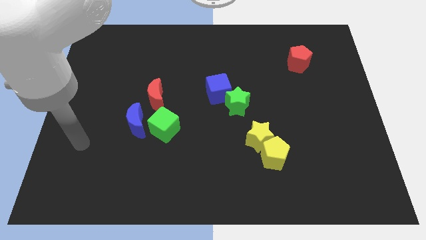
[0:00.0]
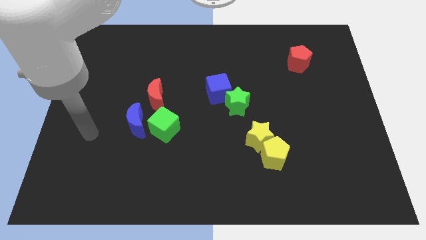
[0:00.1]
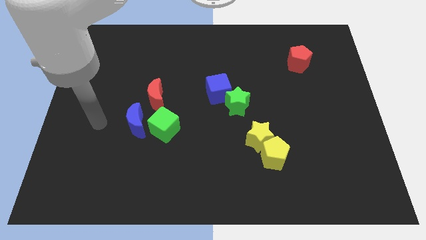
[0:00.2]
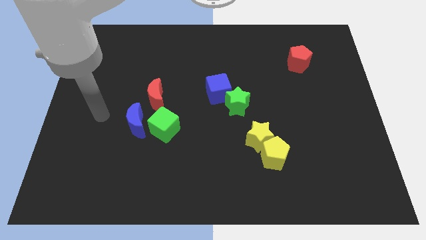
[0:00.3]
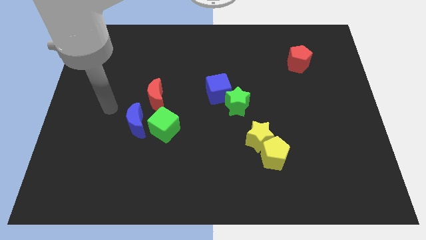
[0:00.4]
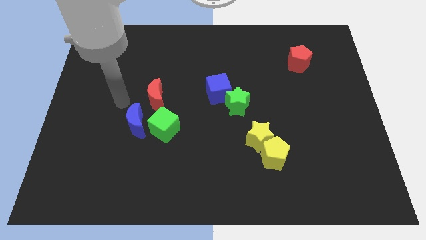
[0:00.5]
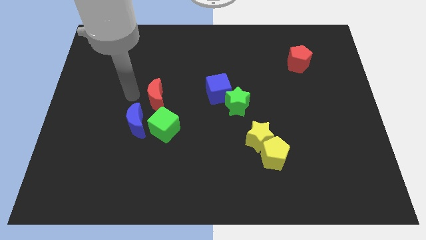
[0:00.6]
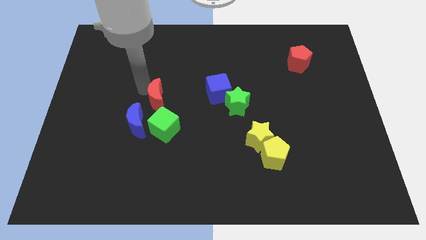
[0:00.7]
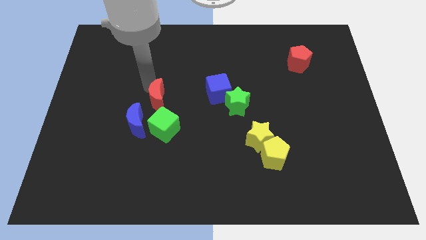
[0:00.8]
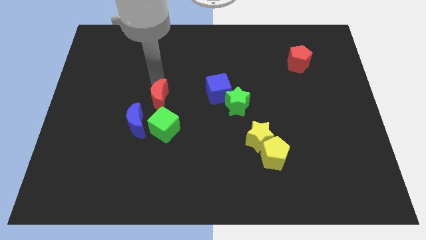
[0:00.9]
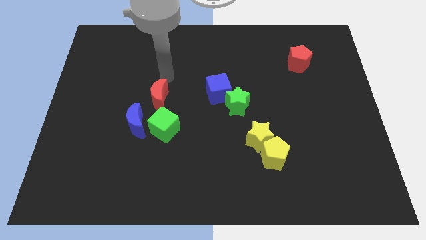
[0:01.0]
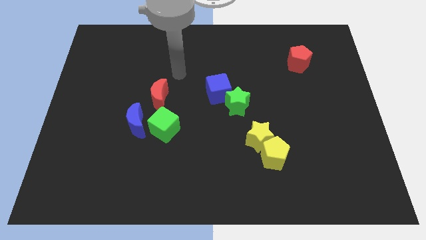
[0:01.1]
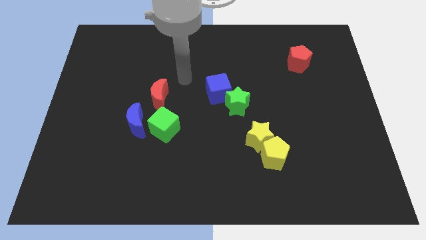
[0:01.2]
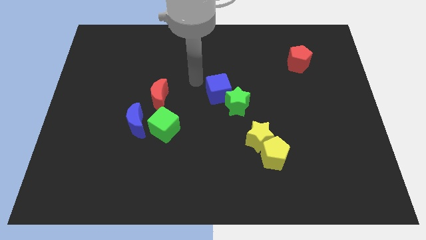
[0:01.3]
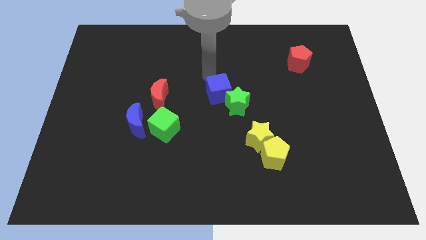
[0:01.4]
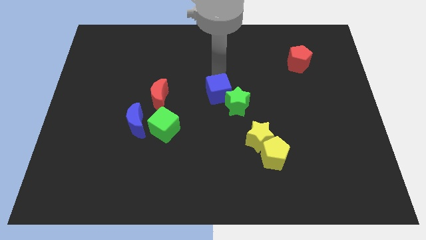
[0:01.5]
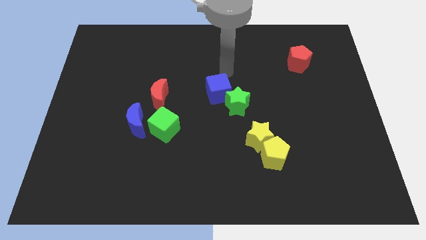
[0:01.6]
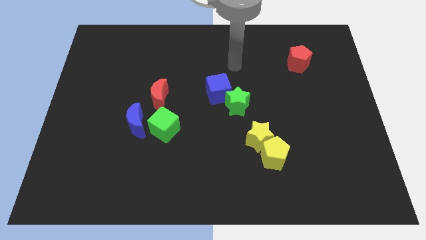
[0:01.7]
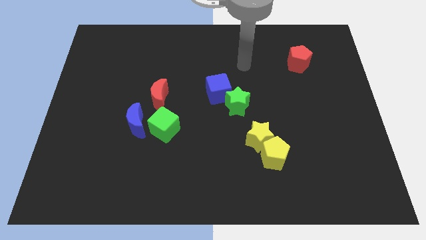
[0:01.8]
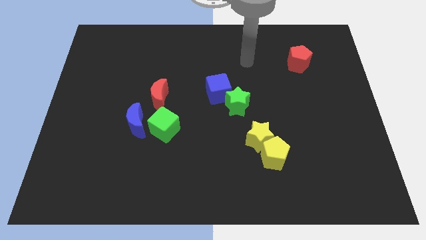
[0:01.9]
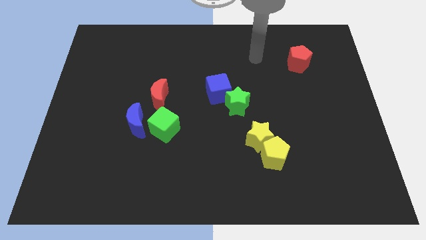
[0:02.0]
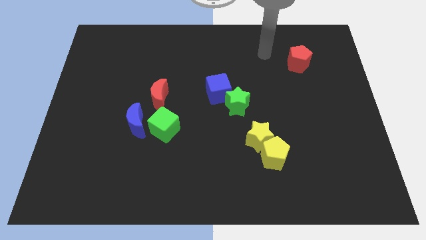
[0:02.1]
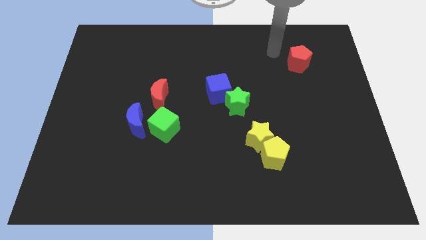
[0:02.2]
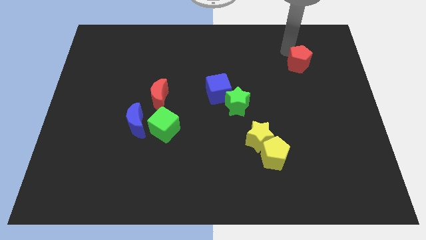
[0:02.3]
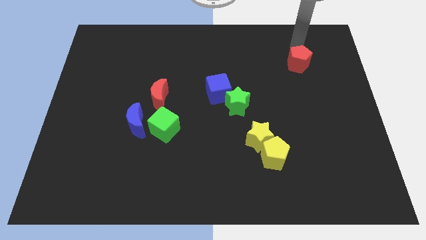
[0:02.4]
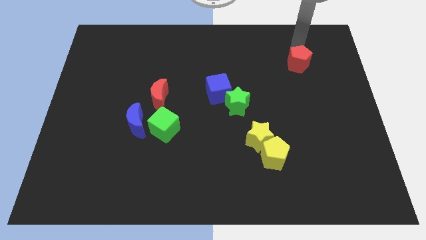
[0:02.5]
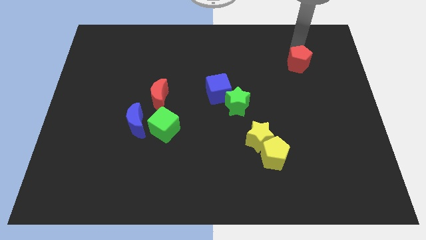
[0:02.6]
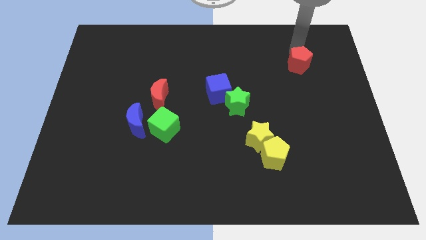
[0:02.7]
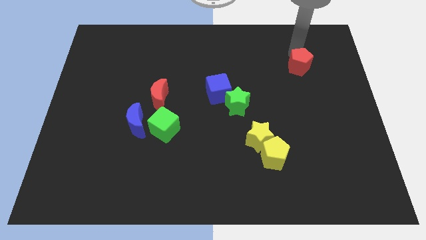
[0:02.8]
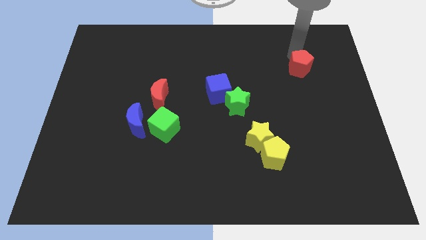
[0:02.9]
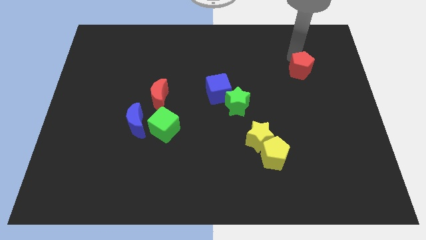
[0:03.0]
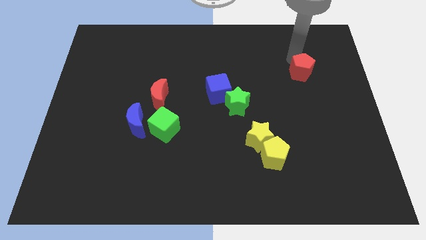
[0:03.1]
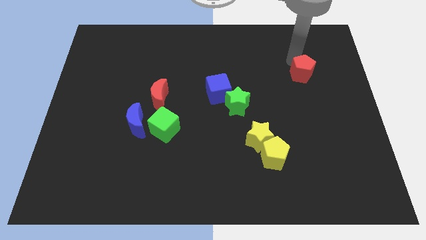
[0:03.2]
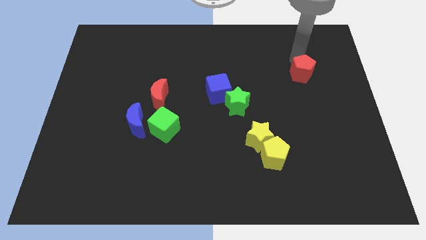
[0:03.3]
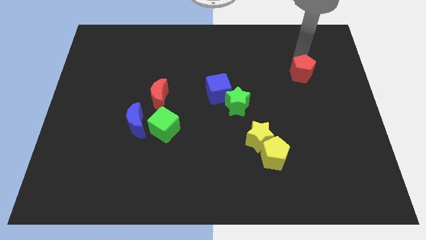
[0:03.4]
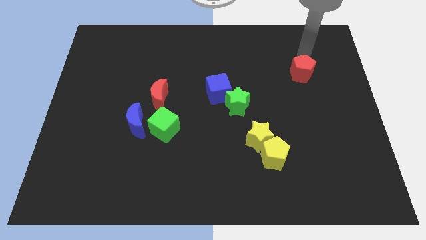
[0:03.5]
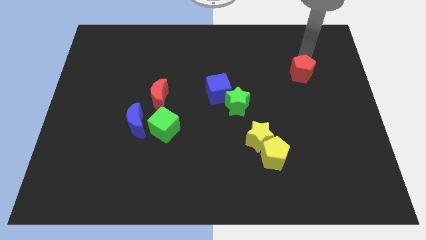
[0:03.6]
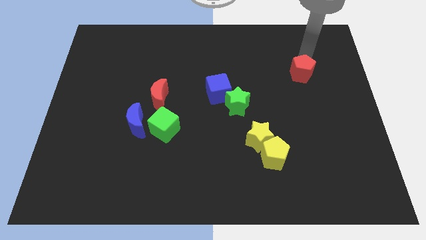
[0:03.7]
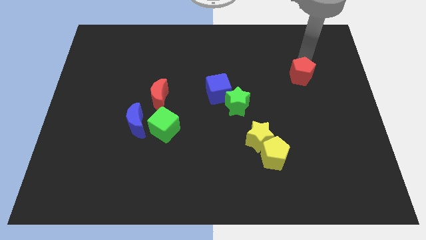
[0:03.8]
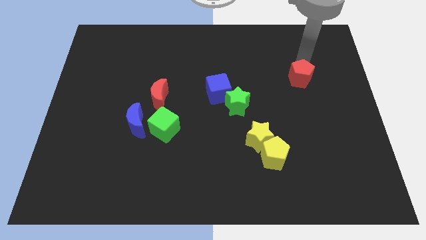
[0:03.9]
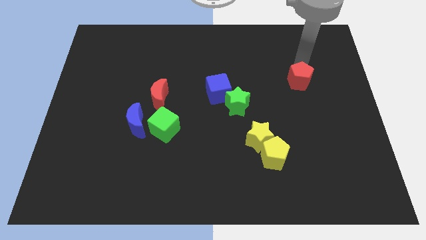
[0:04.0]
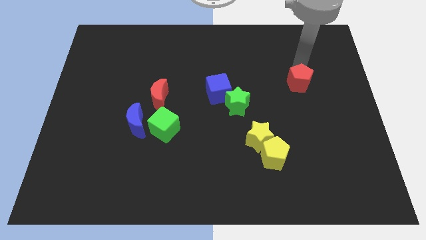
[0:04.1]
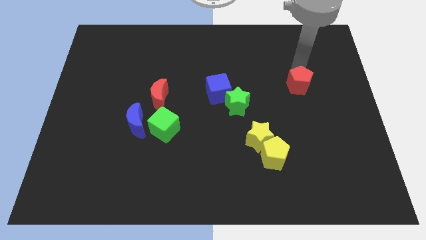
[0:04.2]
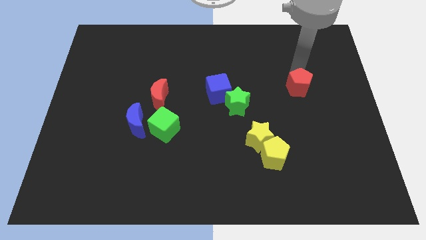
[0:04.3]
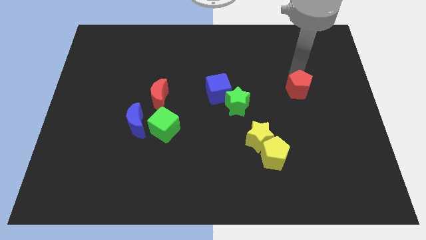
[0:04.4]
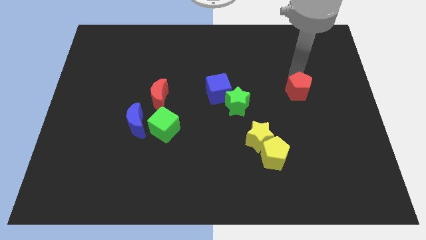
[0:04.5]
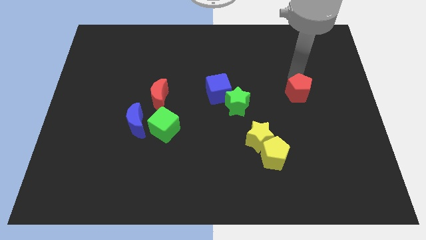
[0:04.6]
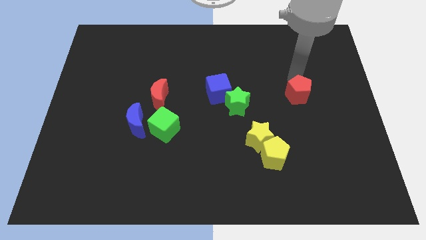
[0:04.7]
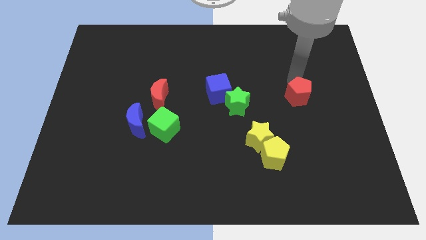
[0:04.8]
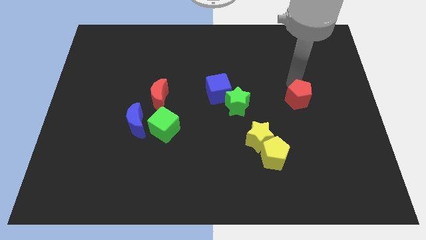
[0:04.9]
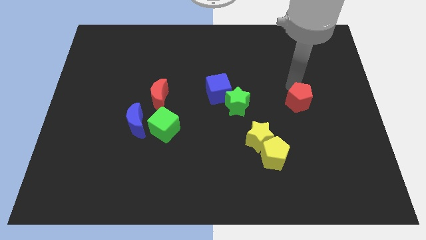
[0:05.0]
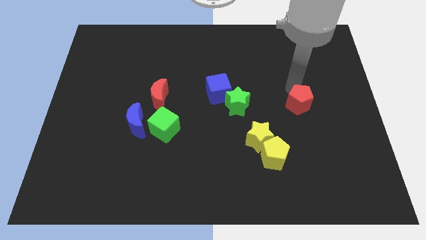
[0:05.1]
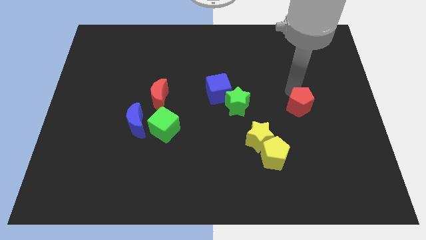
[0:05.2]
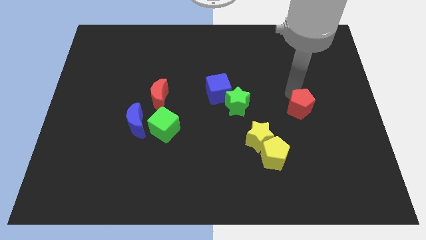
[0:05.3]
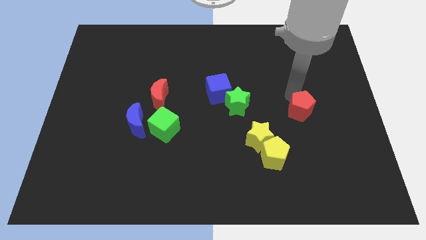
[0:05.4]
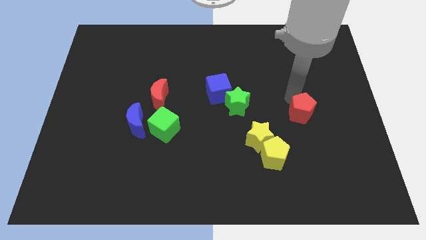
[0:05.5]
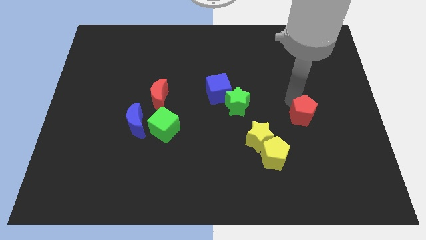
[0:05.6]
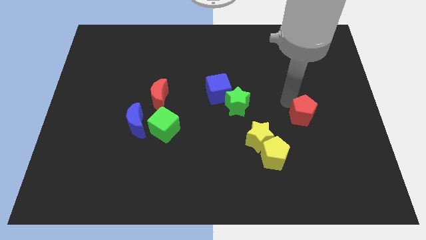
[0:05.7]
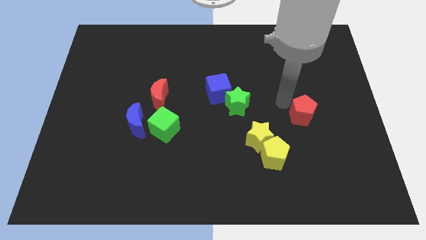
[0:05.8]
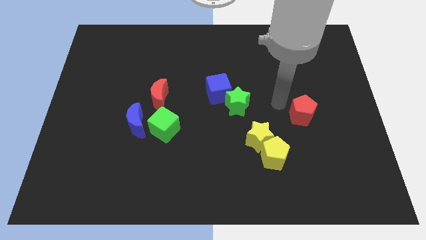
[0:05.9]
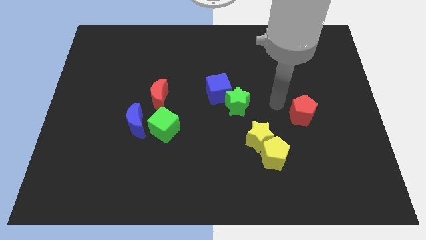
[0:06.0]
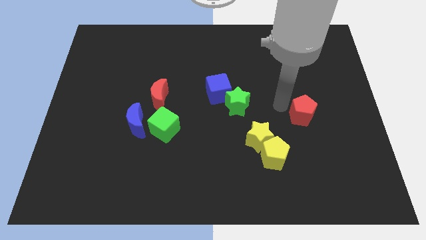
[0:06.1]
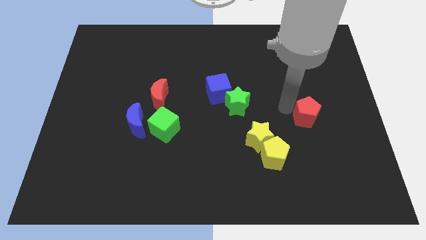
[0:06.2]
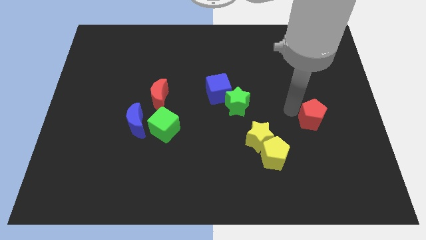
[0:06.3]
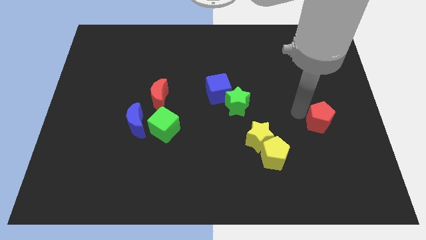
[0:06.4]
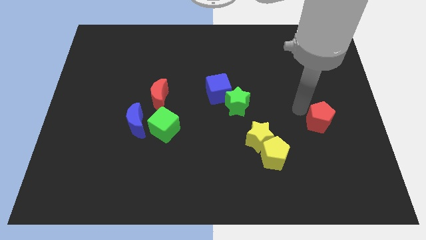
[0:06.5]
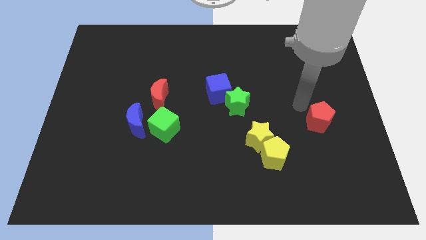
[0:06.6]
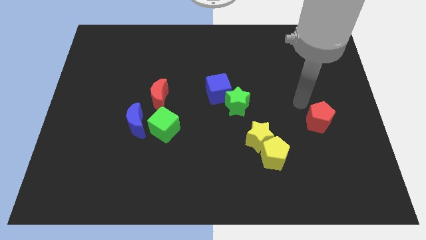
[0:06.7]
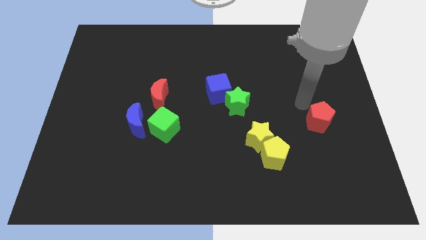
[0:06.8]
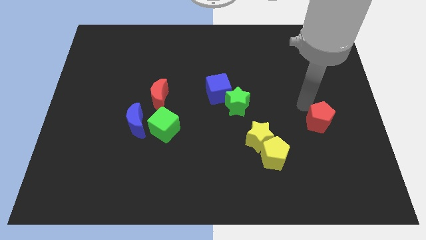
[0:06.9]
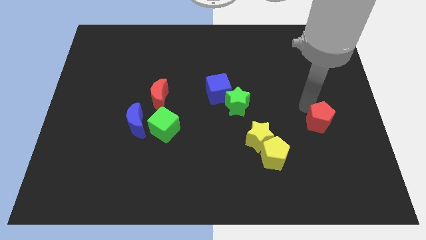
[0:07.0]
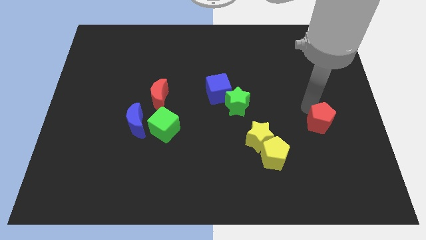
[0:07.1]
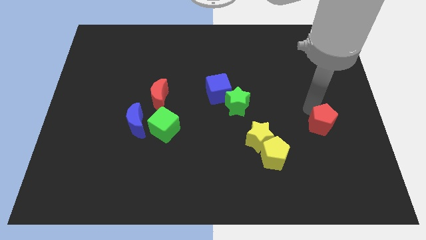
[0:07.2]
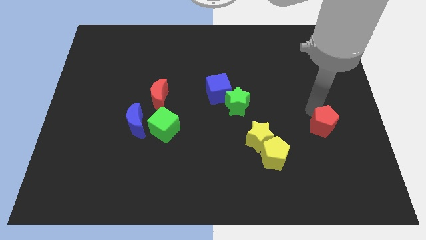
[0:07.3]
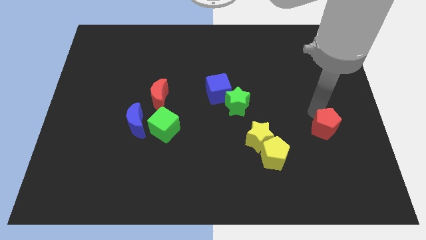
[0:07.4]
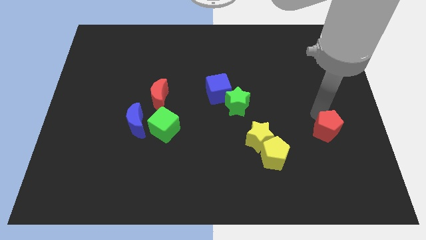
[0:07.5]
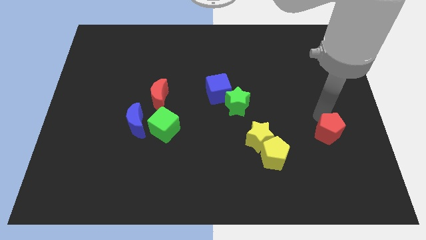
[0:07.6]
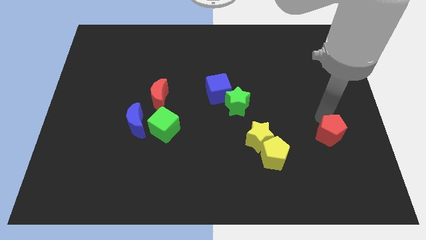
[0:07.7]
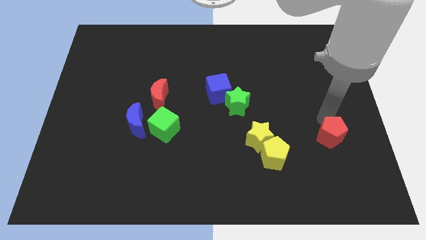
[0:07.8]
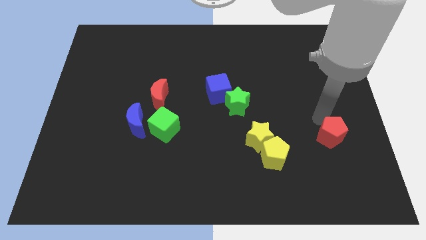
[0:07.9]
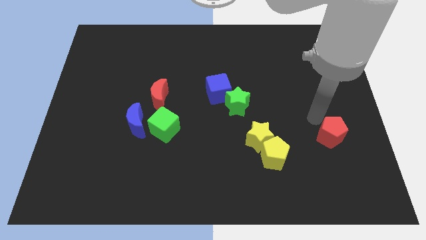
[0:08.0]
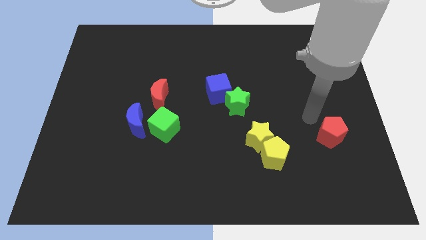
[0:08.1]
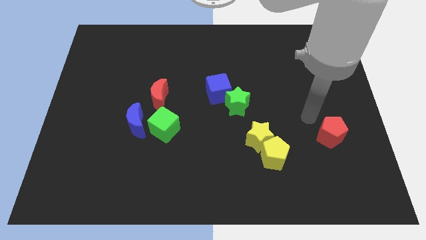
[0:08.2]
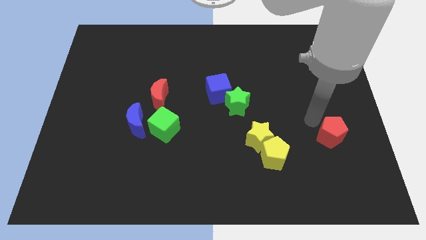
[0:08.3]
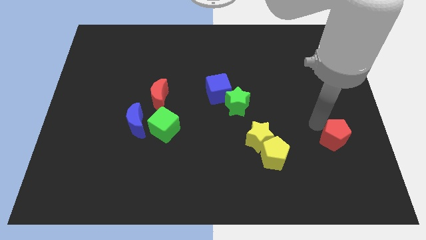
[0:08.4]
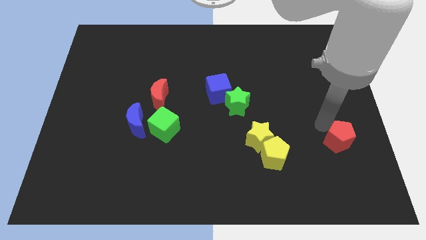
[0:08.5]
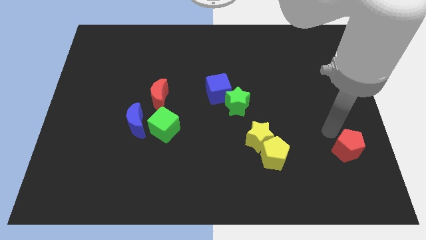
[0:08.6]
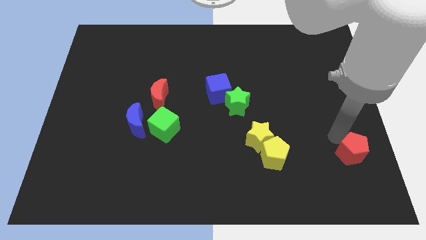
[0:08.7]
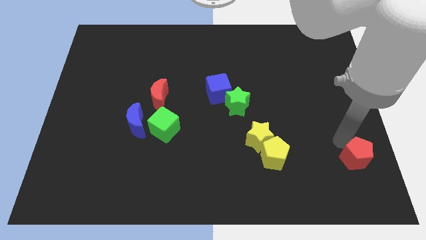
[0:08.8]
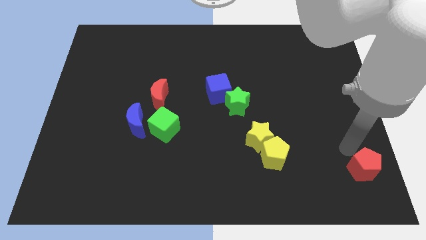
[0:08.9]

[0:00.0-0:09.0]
move the red pentagon to the lower right corner
